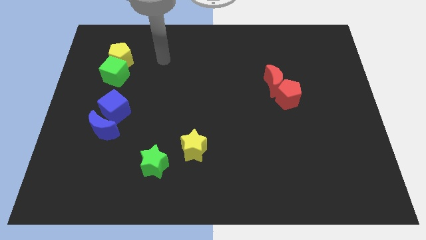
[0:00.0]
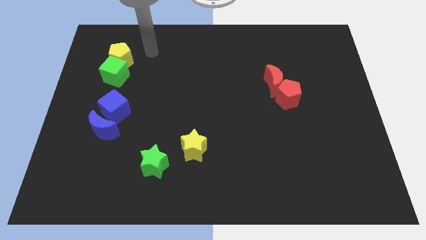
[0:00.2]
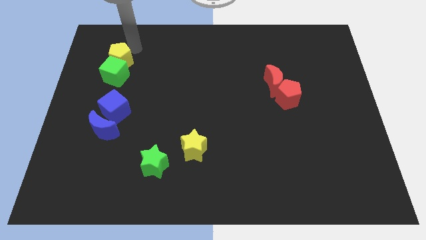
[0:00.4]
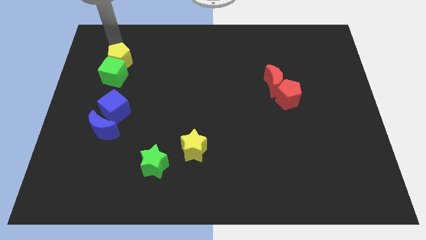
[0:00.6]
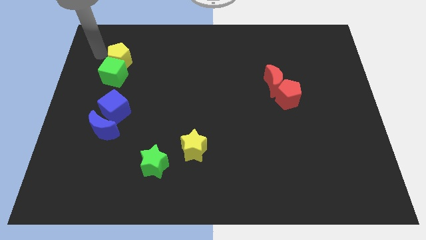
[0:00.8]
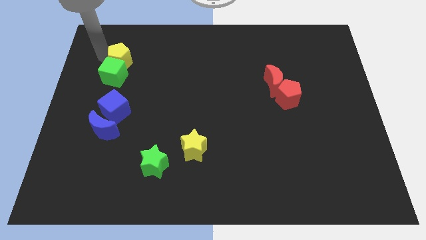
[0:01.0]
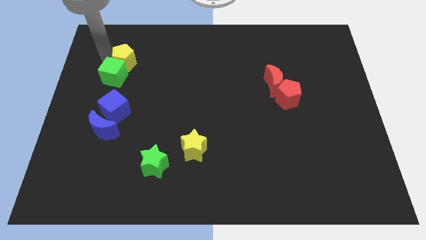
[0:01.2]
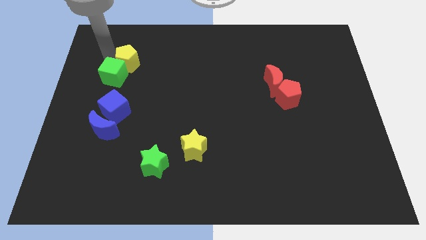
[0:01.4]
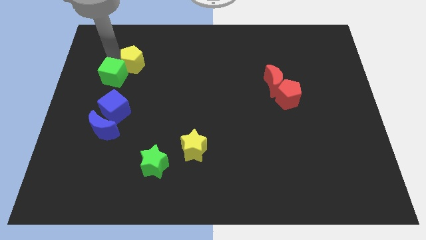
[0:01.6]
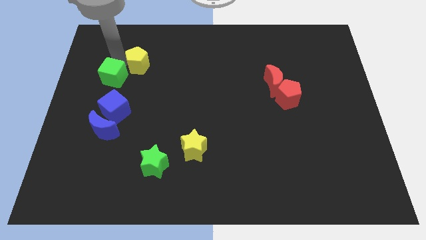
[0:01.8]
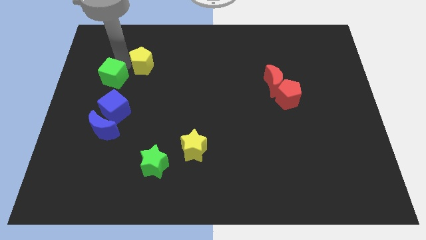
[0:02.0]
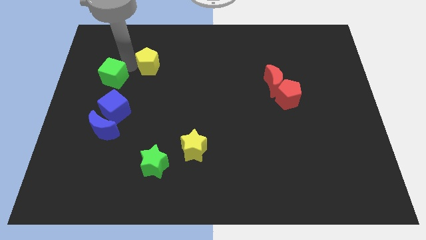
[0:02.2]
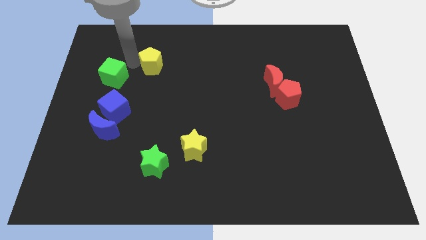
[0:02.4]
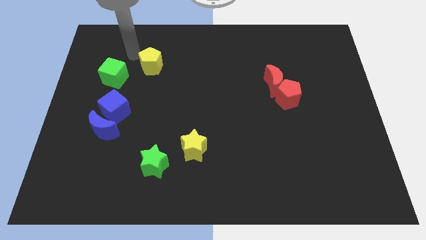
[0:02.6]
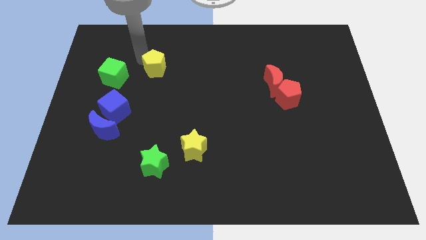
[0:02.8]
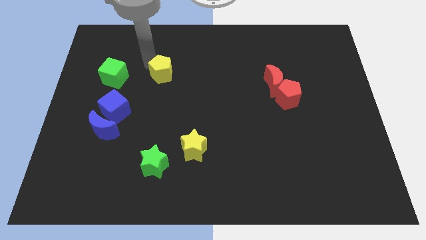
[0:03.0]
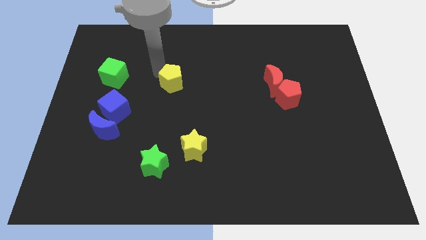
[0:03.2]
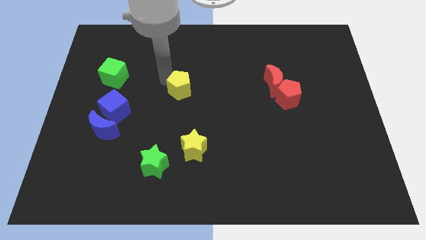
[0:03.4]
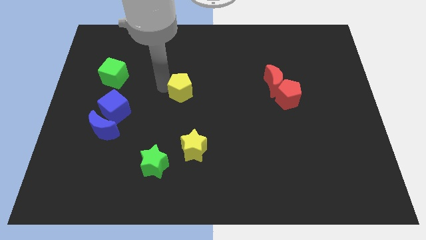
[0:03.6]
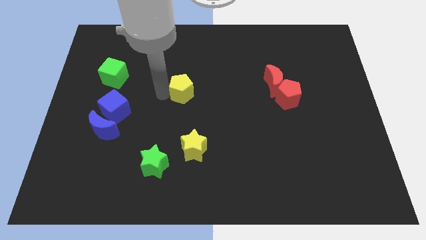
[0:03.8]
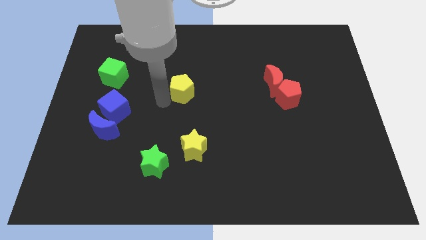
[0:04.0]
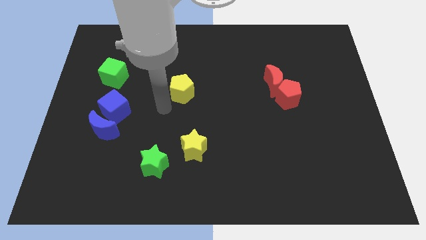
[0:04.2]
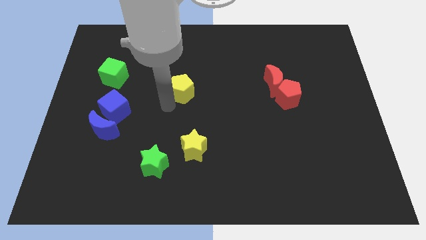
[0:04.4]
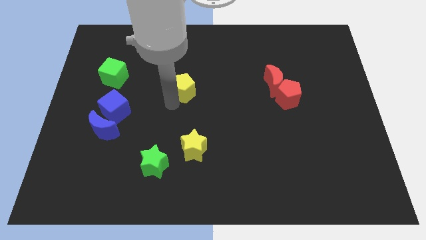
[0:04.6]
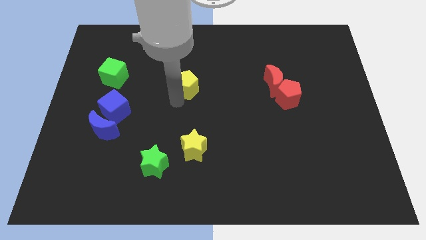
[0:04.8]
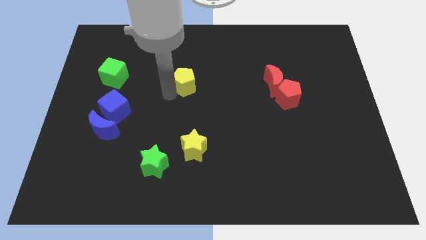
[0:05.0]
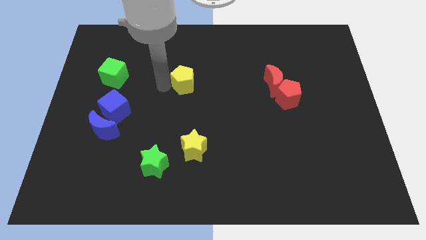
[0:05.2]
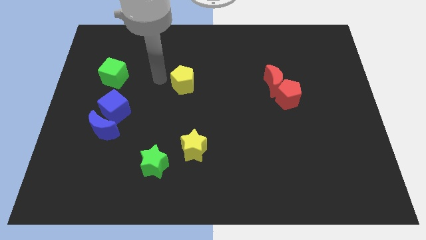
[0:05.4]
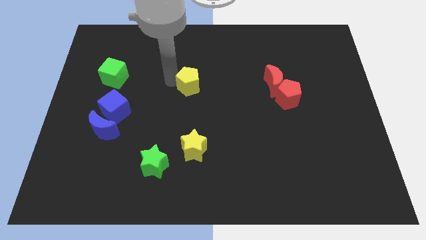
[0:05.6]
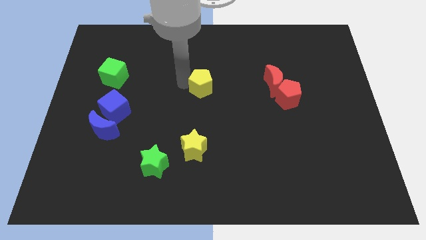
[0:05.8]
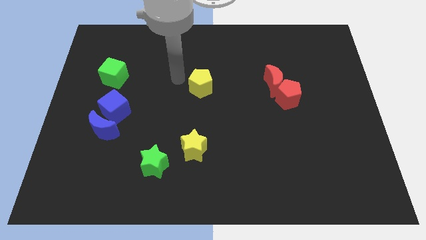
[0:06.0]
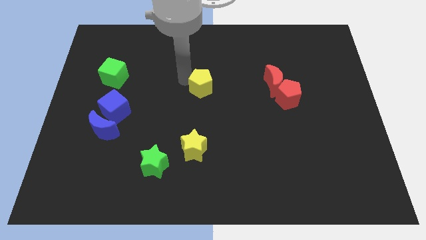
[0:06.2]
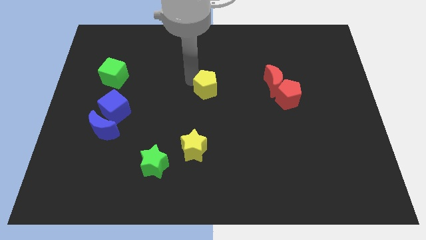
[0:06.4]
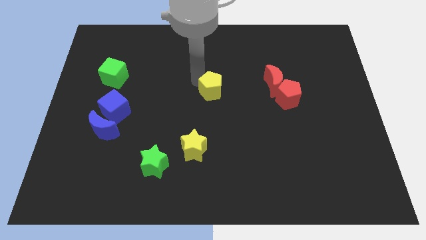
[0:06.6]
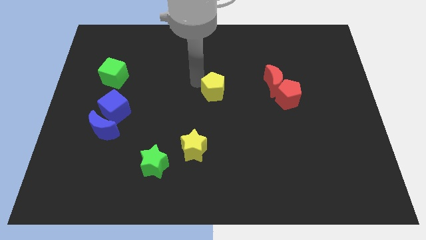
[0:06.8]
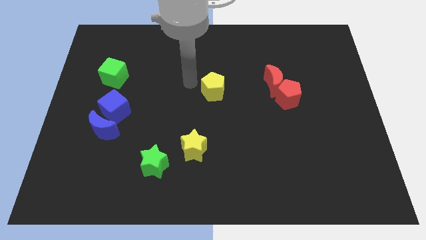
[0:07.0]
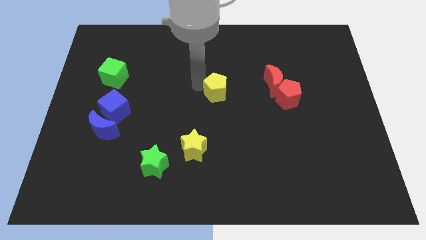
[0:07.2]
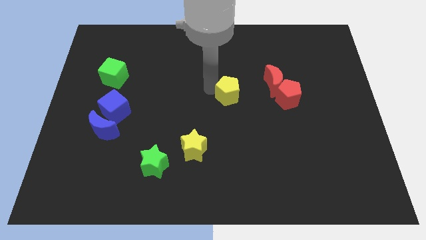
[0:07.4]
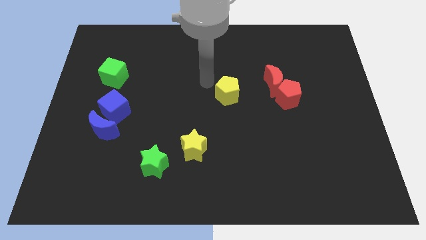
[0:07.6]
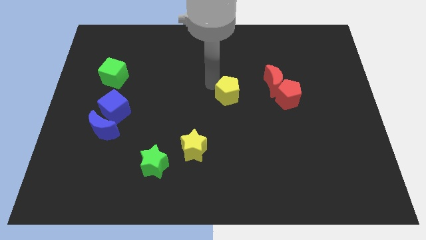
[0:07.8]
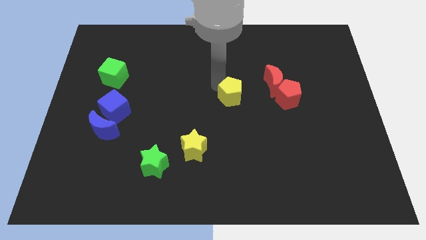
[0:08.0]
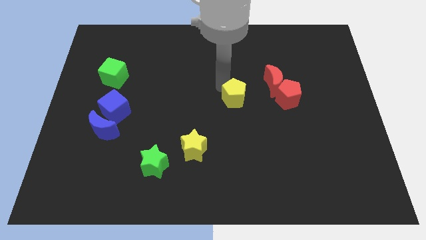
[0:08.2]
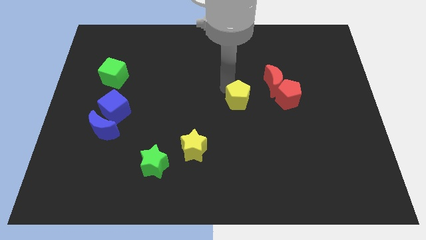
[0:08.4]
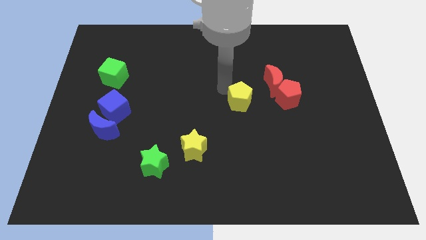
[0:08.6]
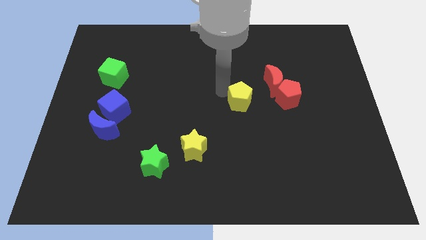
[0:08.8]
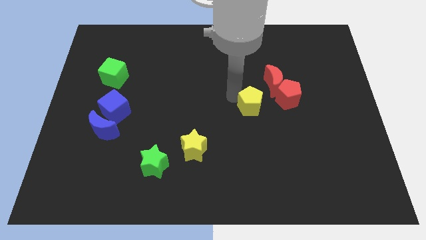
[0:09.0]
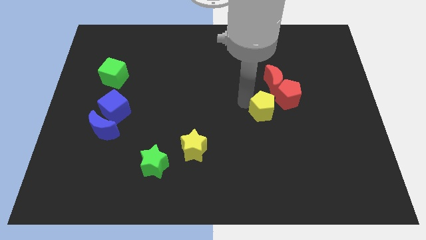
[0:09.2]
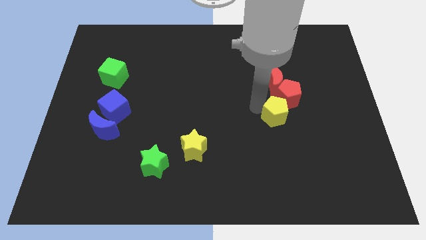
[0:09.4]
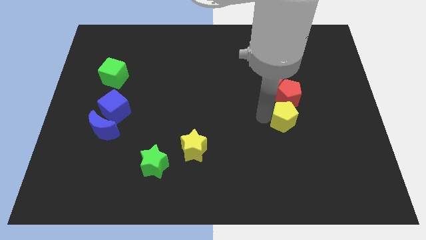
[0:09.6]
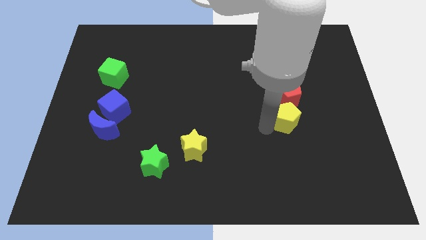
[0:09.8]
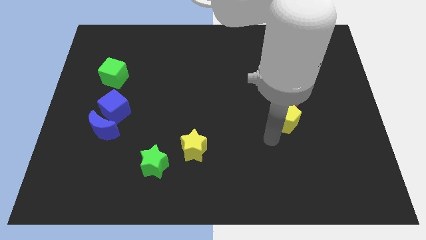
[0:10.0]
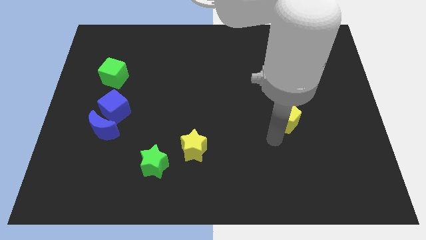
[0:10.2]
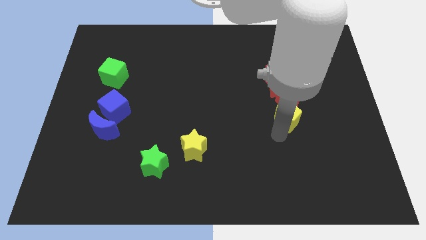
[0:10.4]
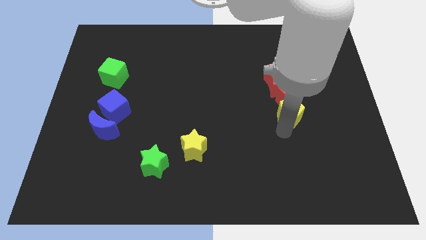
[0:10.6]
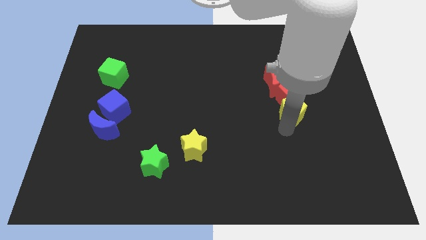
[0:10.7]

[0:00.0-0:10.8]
push the yellow pentagon to the bottom right of the red moon

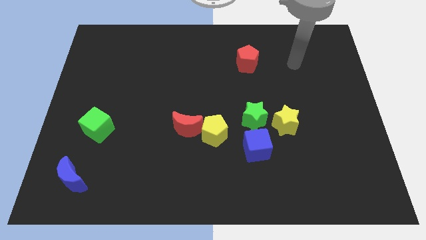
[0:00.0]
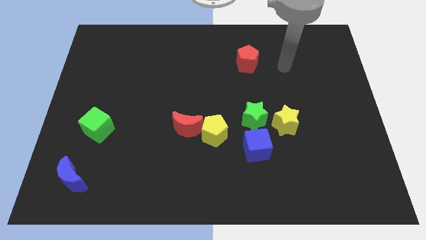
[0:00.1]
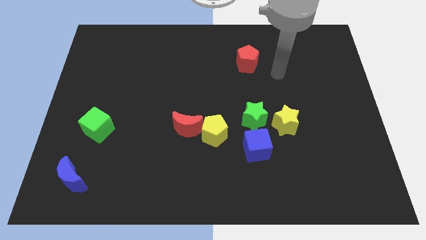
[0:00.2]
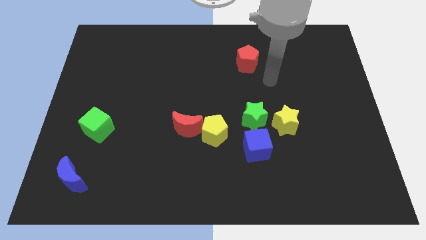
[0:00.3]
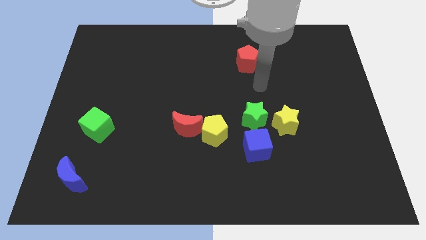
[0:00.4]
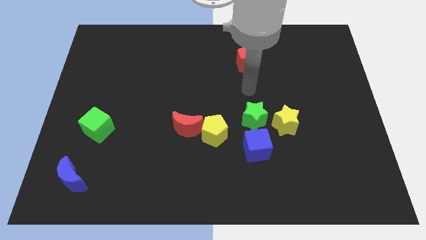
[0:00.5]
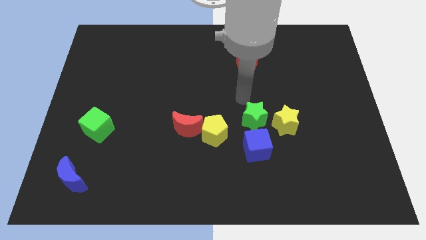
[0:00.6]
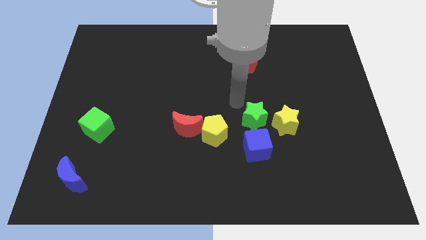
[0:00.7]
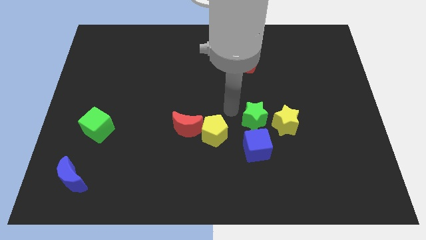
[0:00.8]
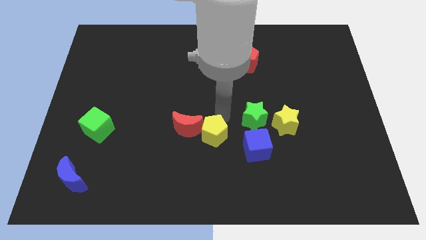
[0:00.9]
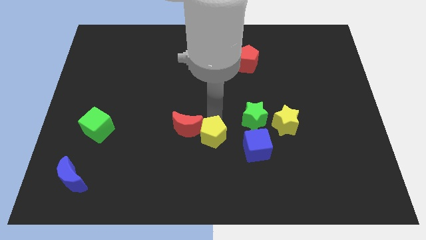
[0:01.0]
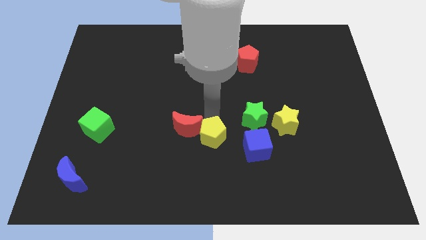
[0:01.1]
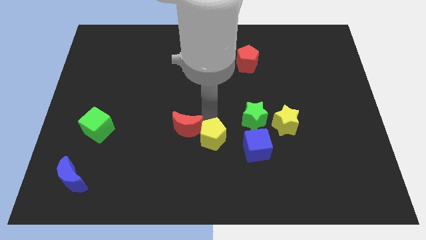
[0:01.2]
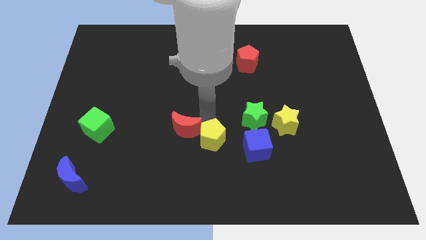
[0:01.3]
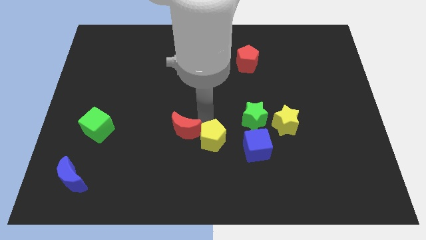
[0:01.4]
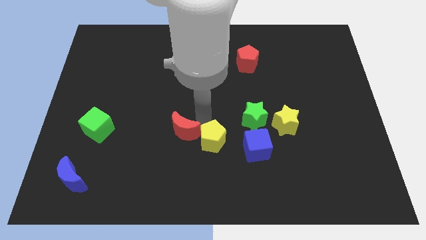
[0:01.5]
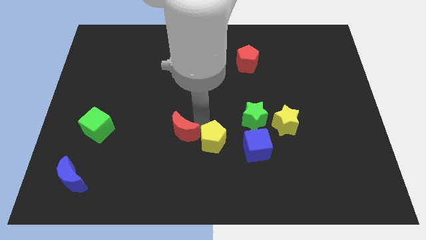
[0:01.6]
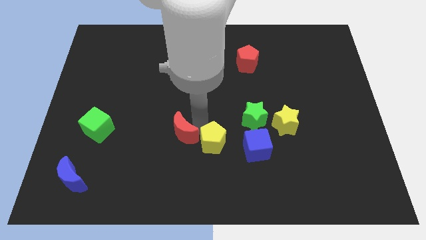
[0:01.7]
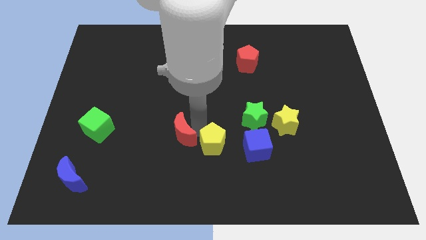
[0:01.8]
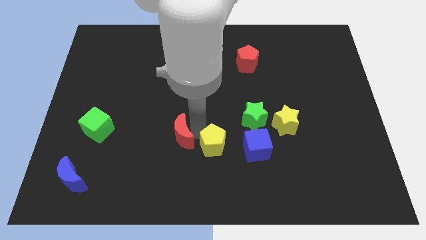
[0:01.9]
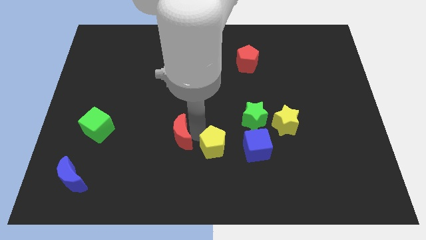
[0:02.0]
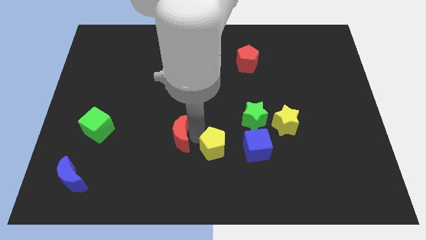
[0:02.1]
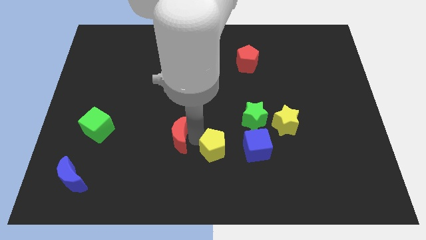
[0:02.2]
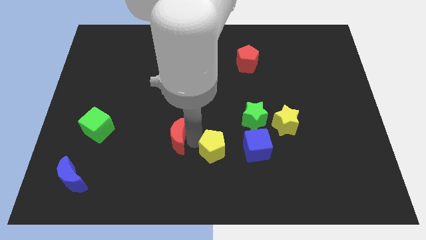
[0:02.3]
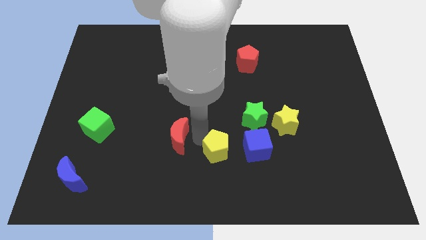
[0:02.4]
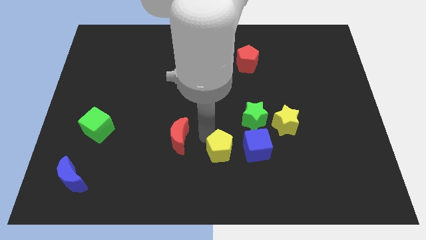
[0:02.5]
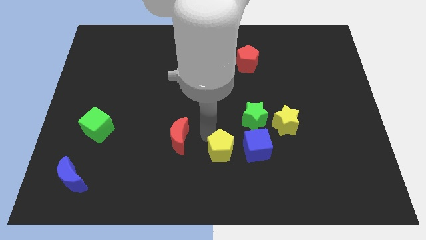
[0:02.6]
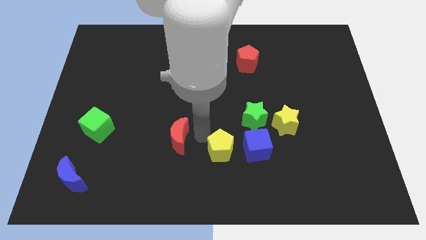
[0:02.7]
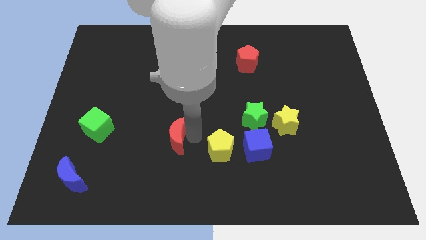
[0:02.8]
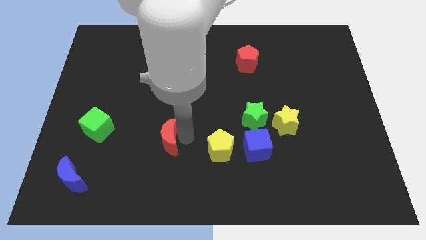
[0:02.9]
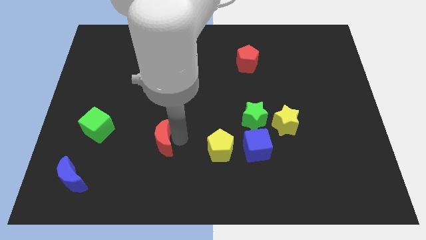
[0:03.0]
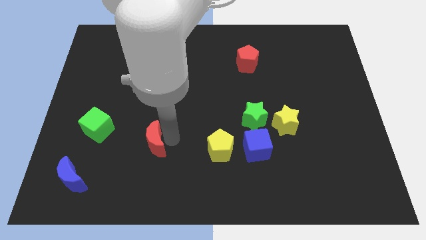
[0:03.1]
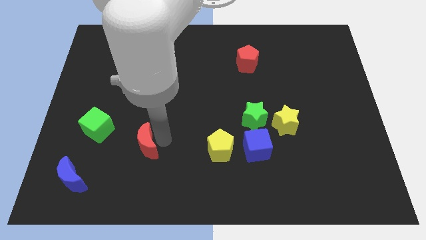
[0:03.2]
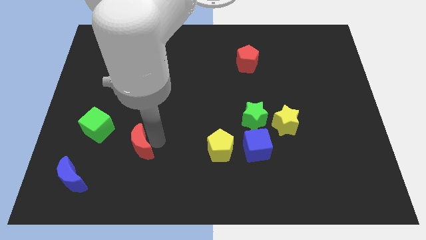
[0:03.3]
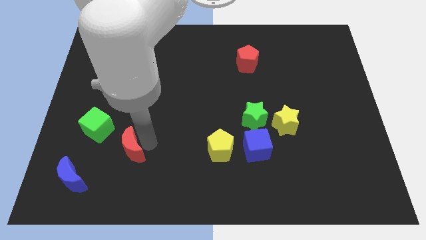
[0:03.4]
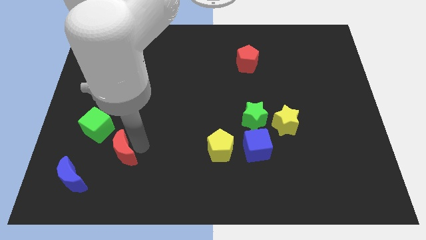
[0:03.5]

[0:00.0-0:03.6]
put the red moon diagonally up and to the right of the blue moon
